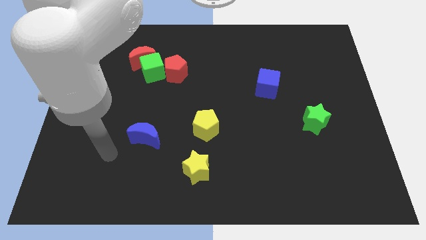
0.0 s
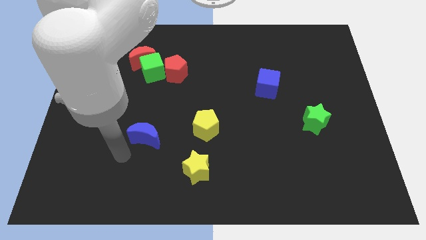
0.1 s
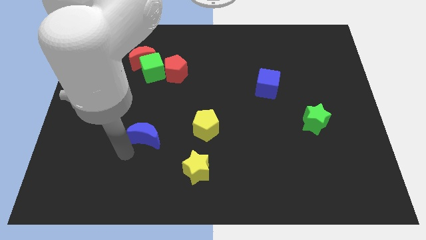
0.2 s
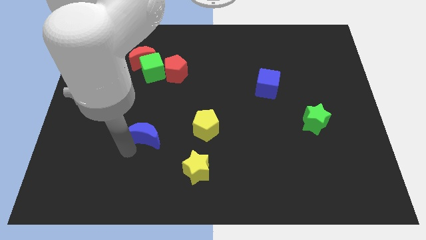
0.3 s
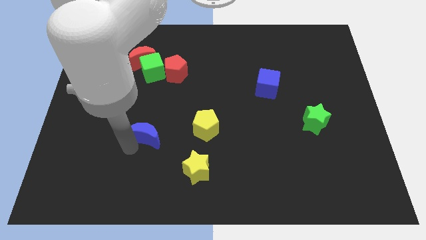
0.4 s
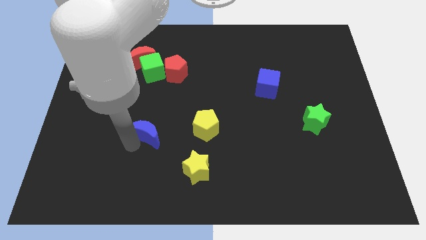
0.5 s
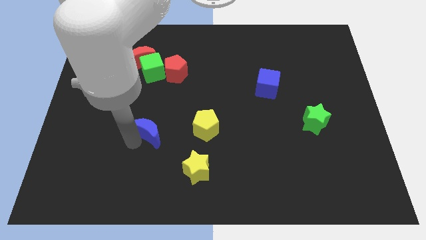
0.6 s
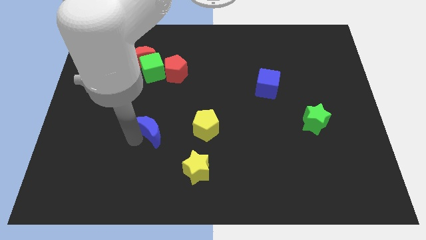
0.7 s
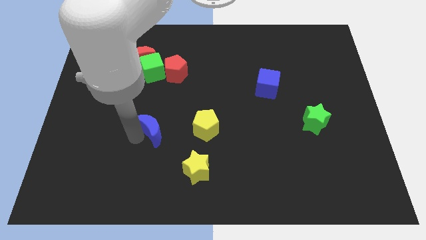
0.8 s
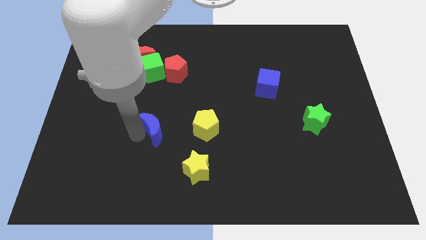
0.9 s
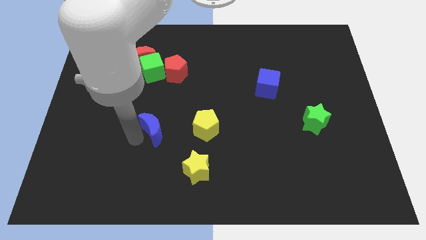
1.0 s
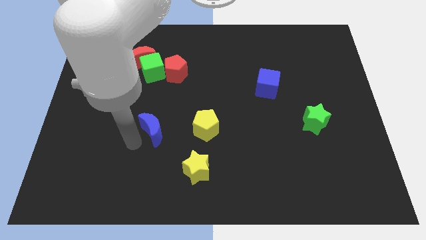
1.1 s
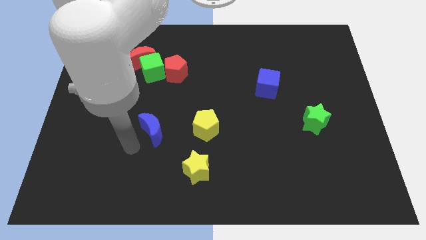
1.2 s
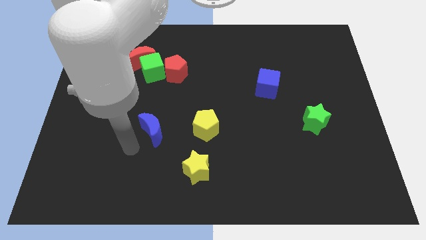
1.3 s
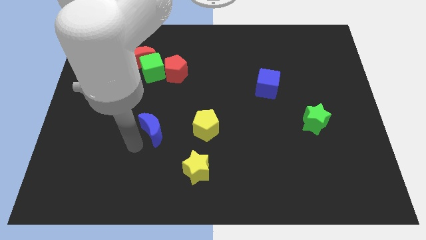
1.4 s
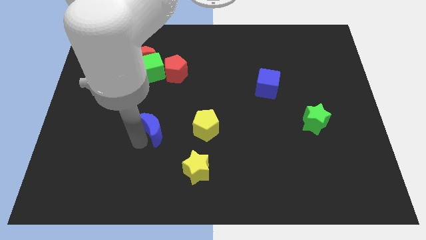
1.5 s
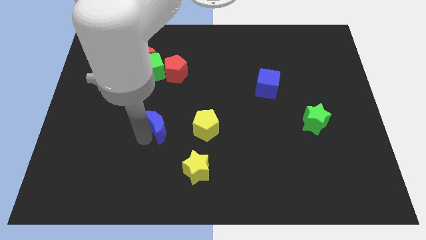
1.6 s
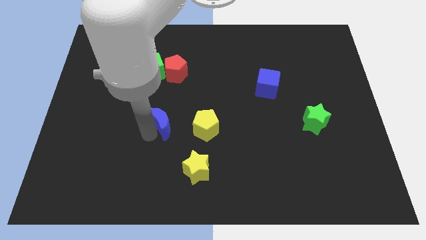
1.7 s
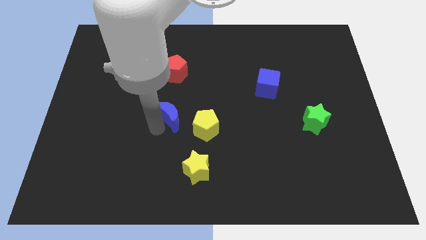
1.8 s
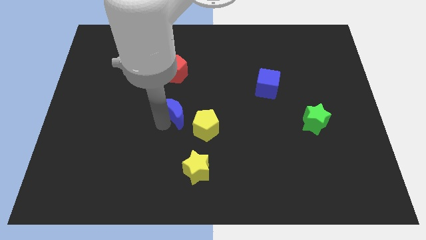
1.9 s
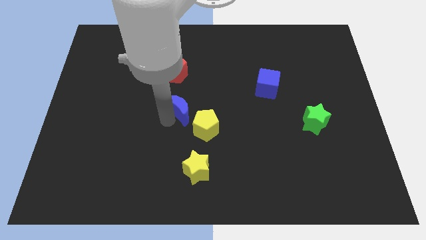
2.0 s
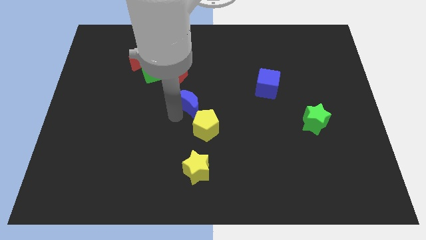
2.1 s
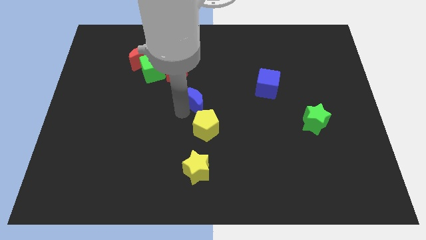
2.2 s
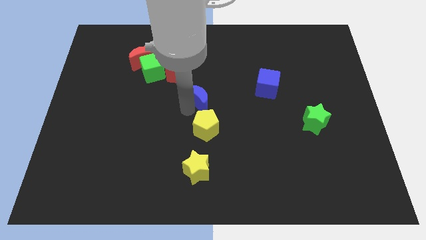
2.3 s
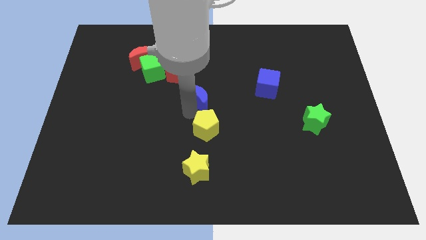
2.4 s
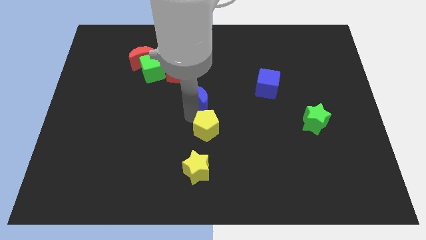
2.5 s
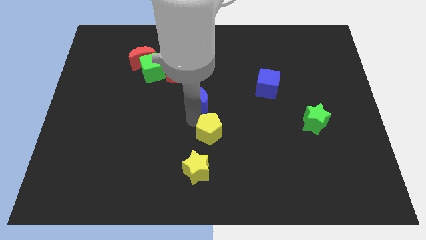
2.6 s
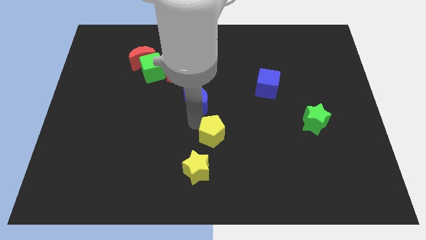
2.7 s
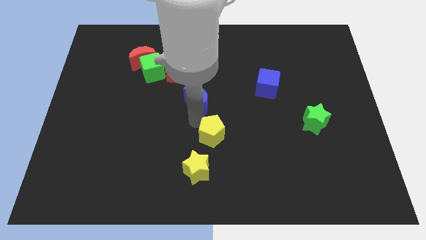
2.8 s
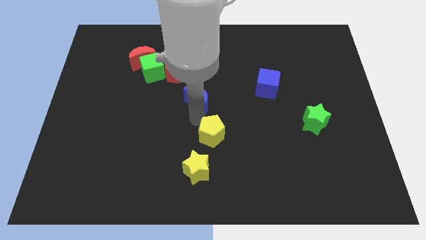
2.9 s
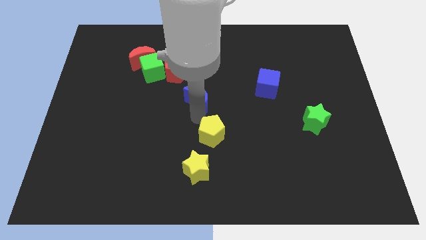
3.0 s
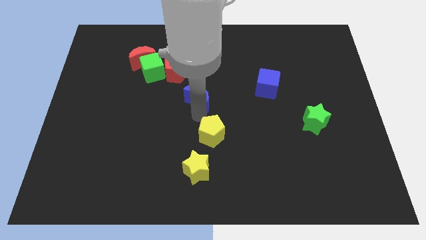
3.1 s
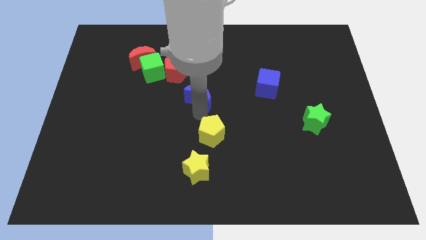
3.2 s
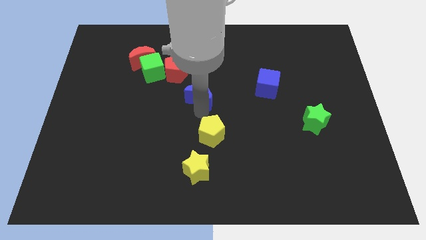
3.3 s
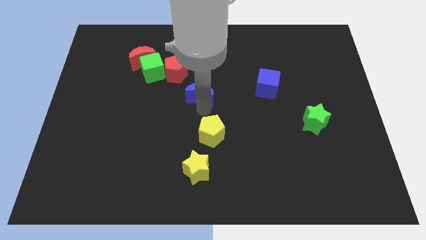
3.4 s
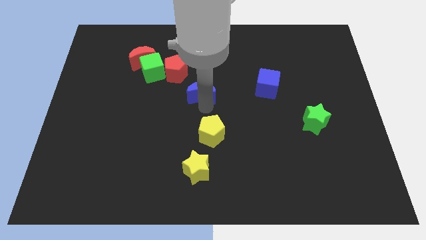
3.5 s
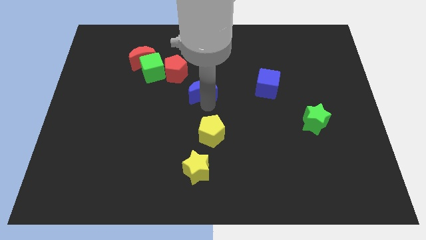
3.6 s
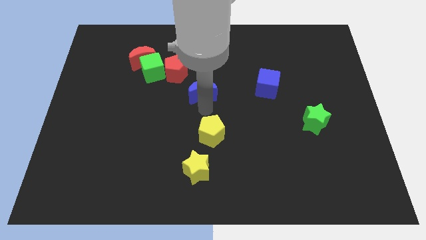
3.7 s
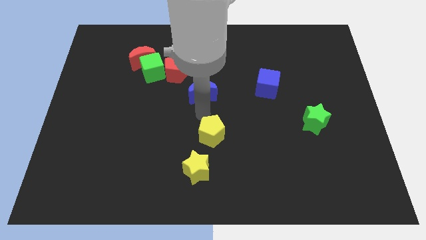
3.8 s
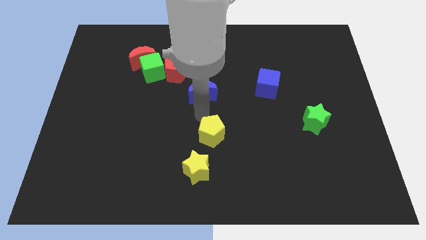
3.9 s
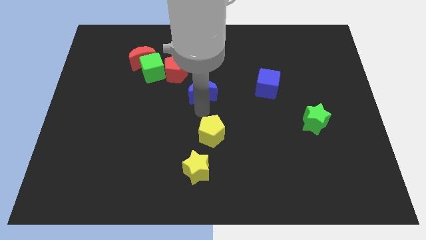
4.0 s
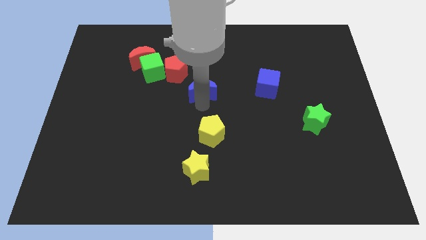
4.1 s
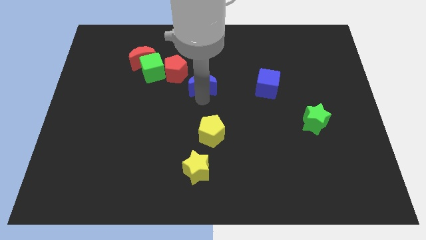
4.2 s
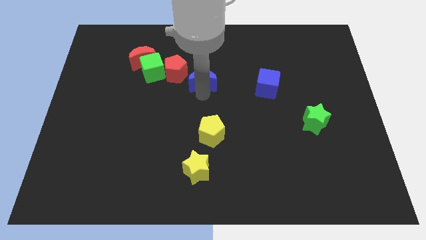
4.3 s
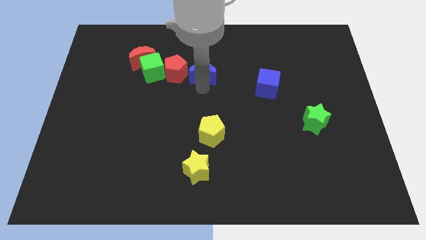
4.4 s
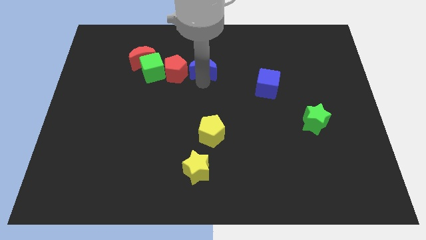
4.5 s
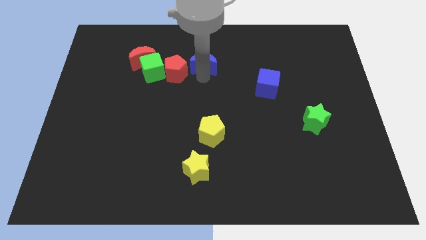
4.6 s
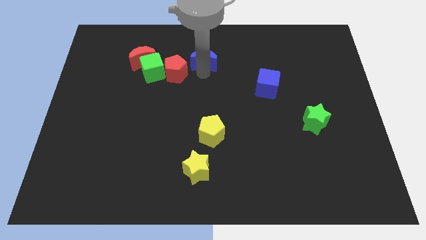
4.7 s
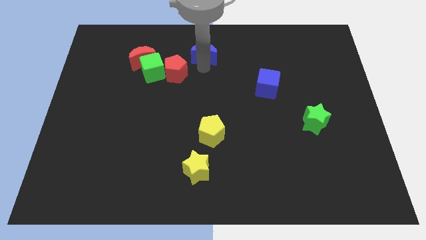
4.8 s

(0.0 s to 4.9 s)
push the blue moon to the top side

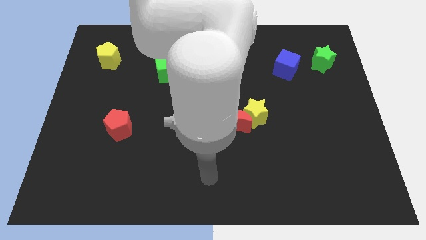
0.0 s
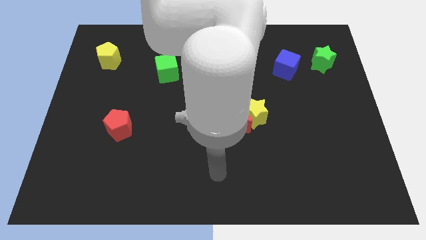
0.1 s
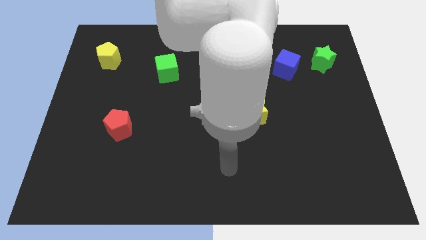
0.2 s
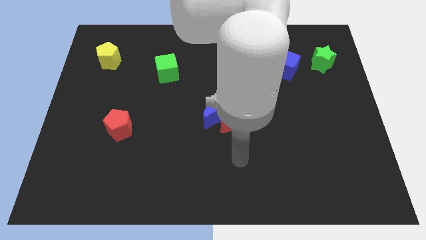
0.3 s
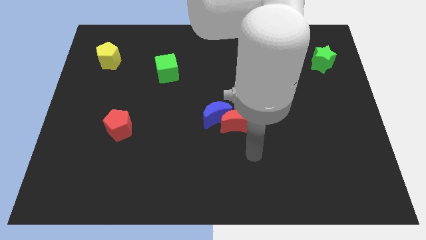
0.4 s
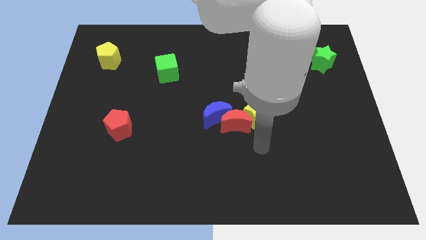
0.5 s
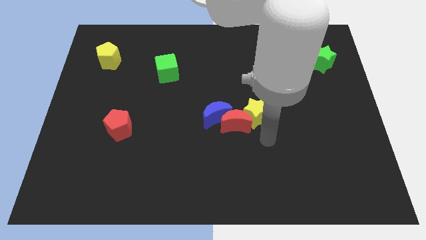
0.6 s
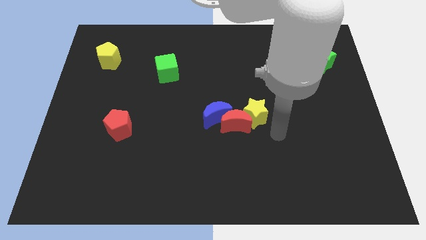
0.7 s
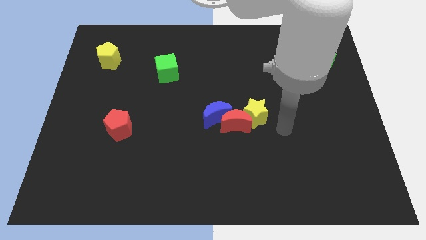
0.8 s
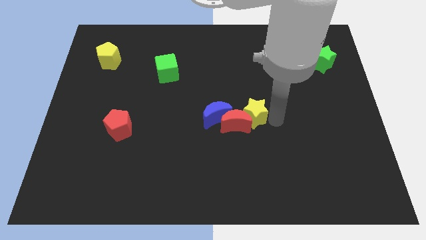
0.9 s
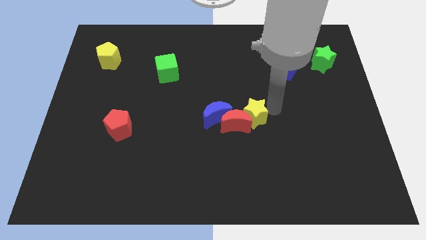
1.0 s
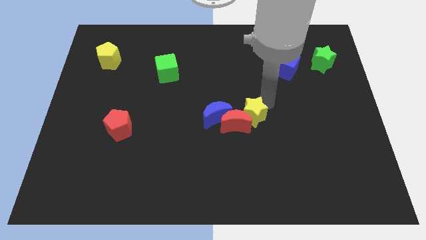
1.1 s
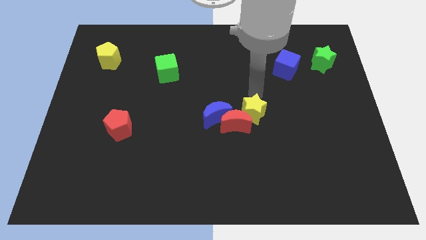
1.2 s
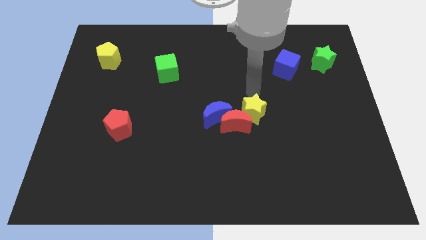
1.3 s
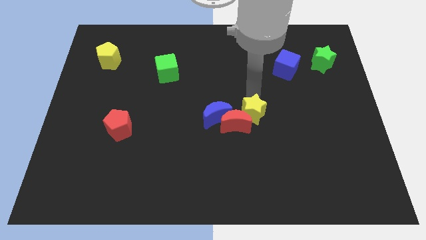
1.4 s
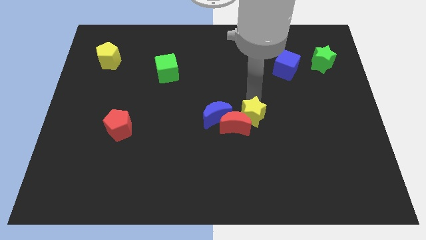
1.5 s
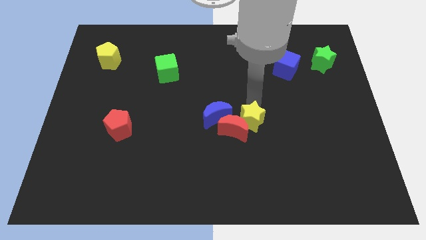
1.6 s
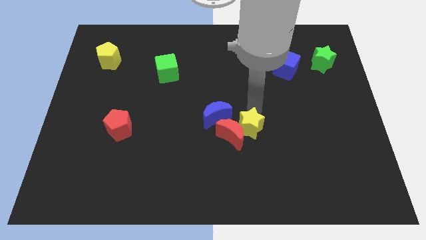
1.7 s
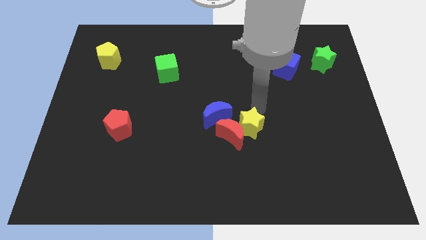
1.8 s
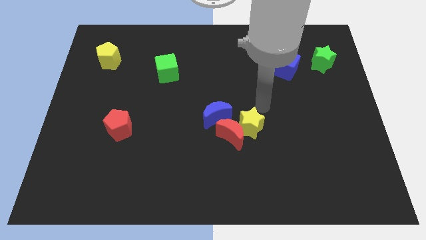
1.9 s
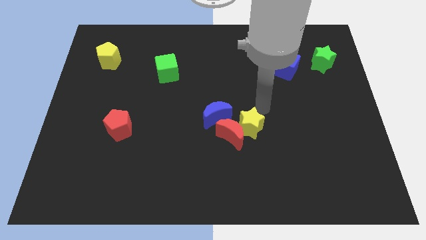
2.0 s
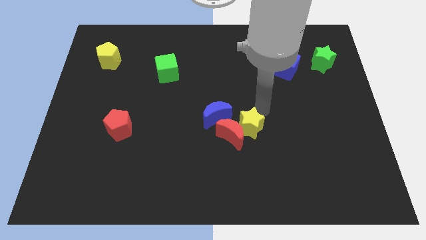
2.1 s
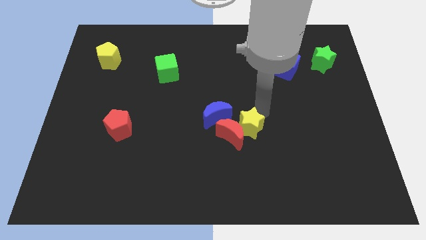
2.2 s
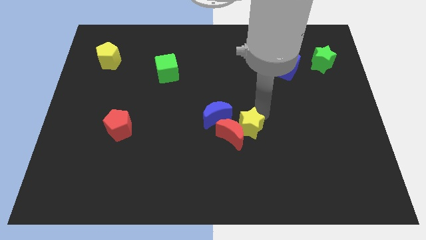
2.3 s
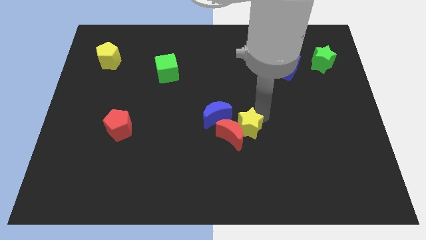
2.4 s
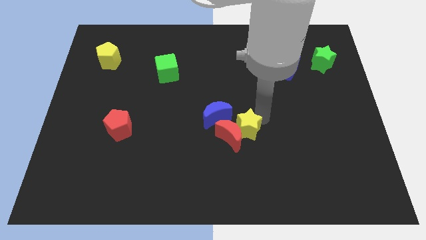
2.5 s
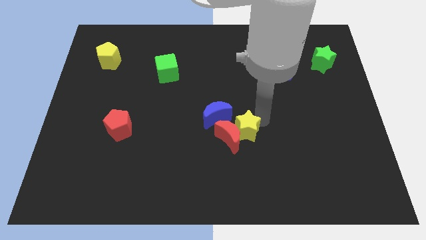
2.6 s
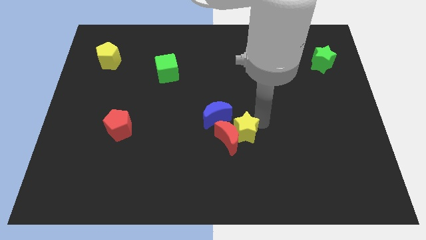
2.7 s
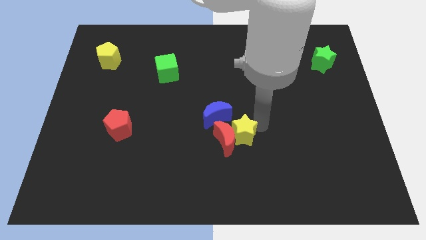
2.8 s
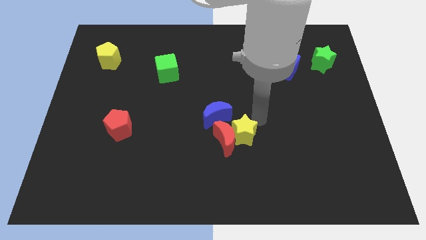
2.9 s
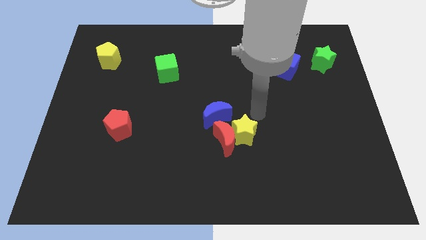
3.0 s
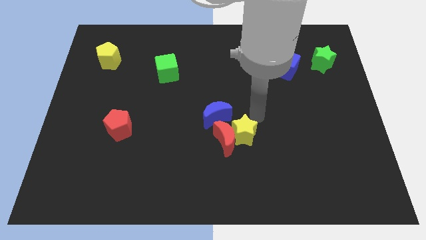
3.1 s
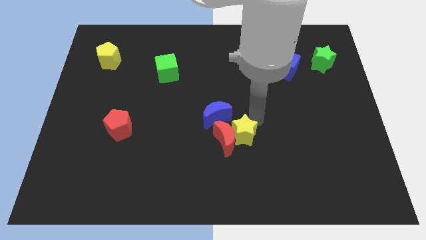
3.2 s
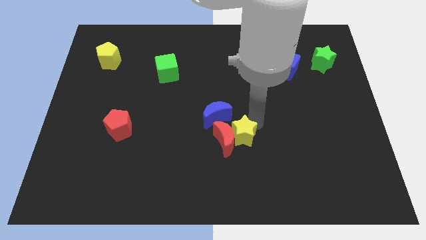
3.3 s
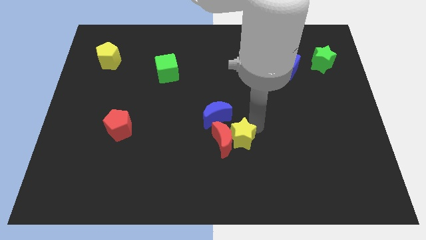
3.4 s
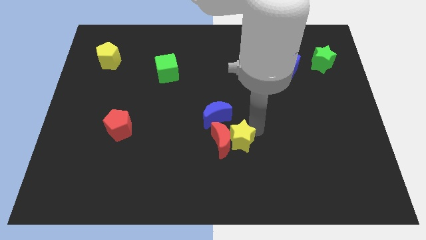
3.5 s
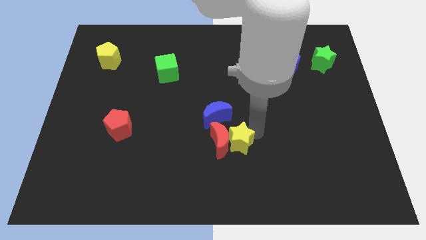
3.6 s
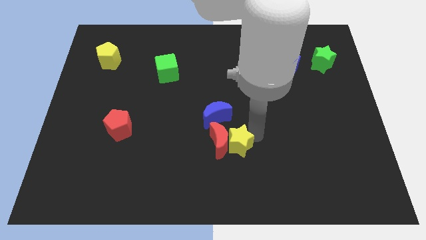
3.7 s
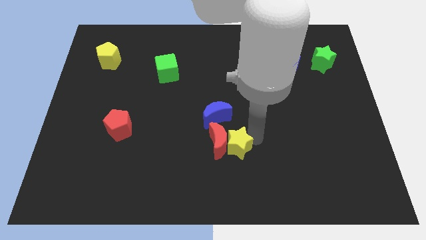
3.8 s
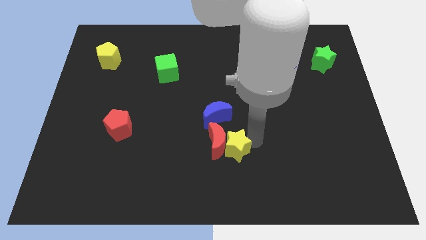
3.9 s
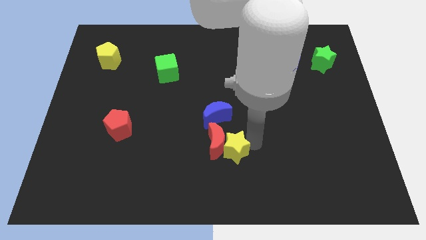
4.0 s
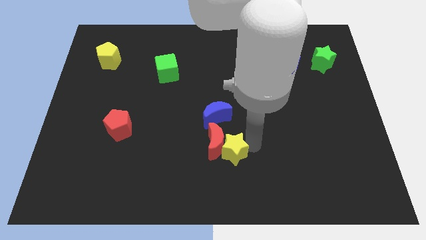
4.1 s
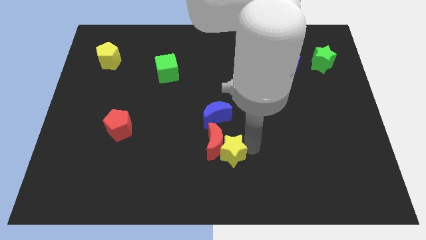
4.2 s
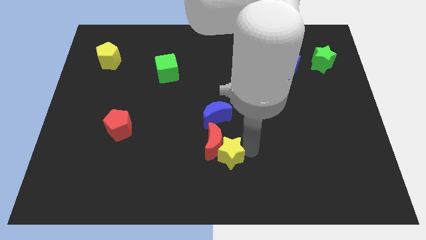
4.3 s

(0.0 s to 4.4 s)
push the yellow star to the bottom side
